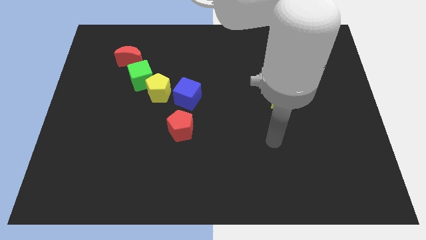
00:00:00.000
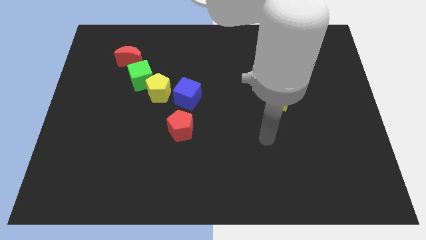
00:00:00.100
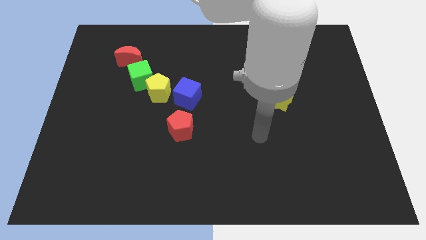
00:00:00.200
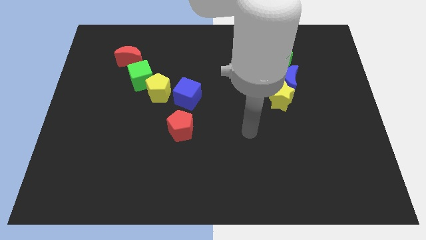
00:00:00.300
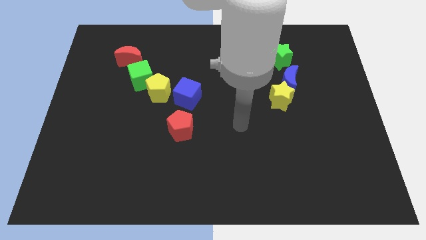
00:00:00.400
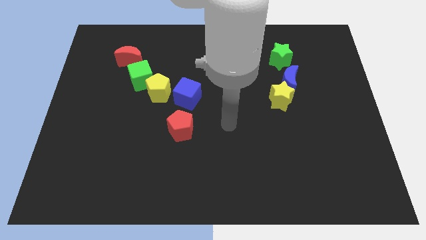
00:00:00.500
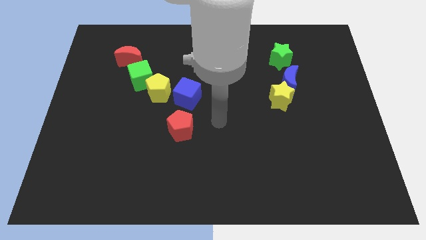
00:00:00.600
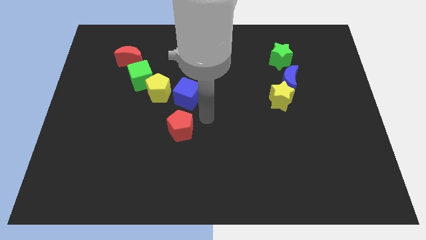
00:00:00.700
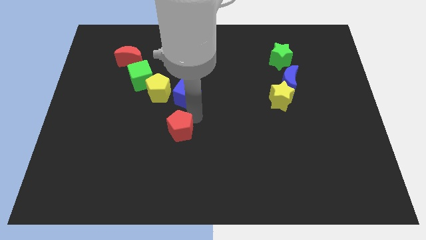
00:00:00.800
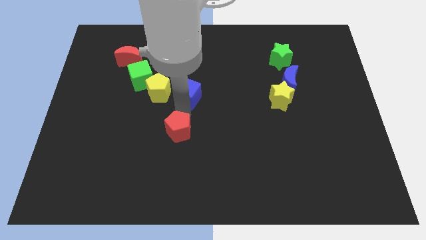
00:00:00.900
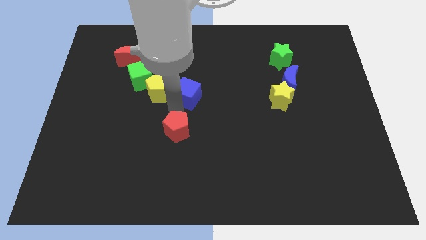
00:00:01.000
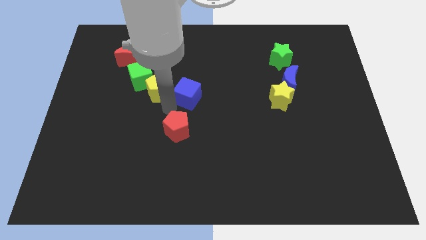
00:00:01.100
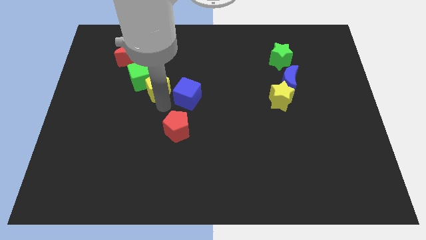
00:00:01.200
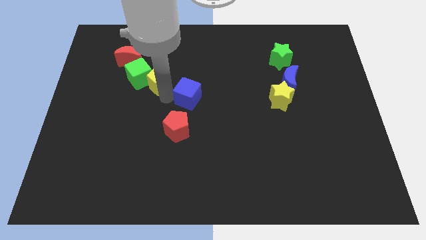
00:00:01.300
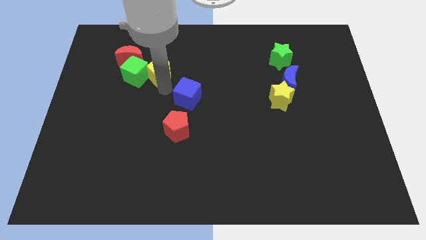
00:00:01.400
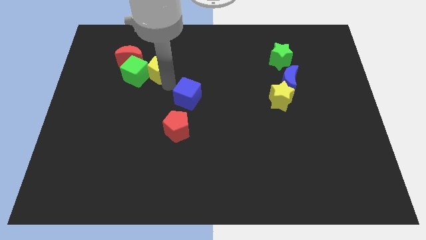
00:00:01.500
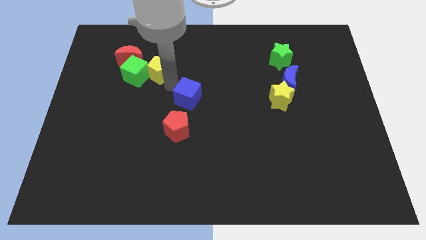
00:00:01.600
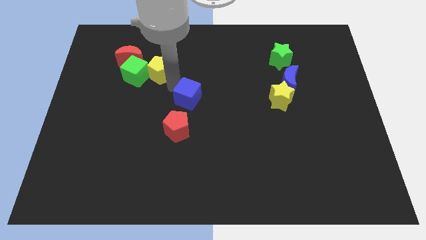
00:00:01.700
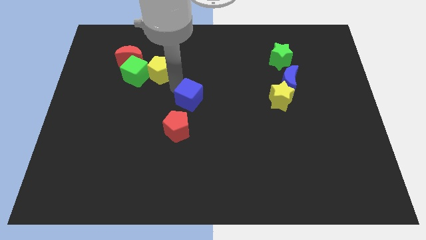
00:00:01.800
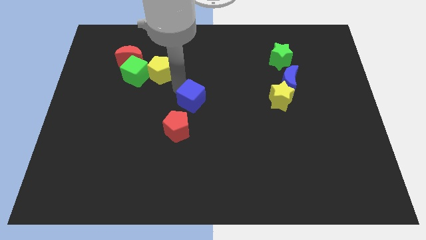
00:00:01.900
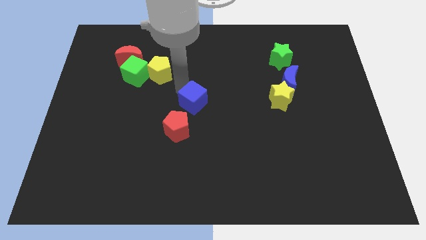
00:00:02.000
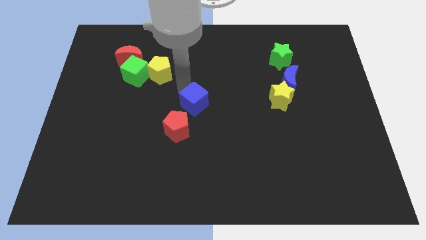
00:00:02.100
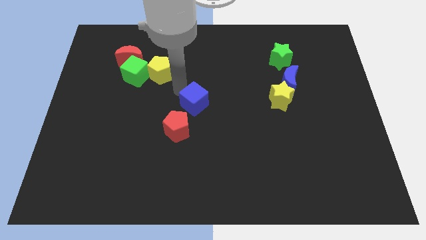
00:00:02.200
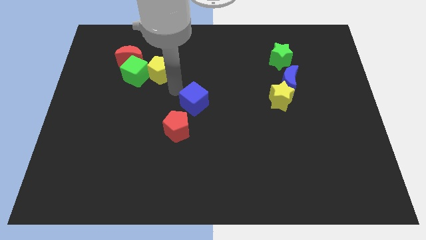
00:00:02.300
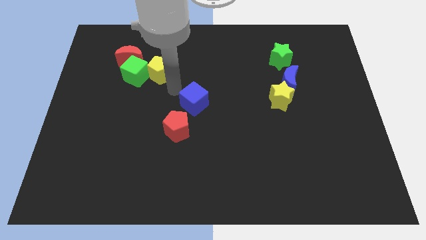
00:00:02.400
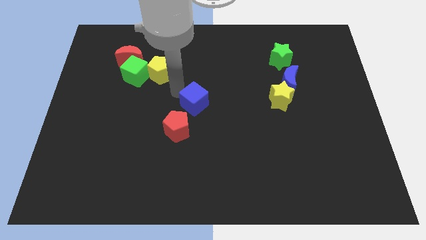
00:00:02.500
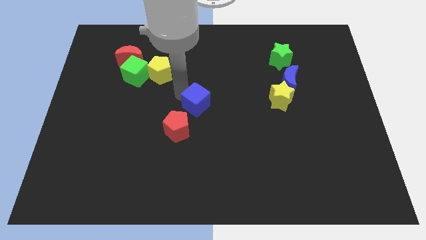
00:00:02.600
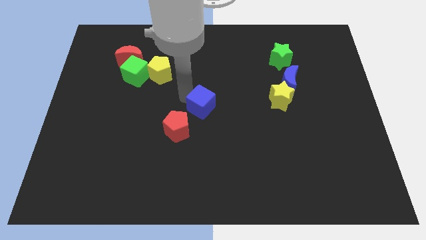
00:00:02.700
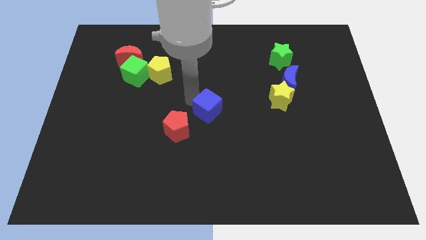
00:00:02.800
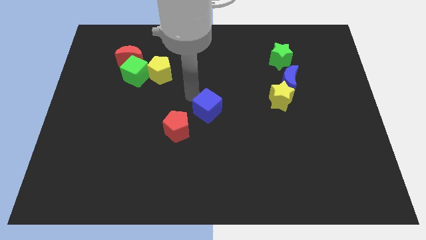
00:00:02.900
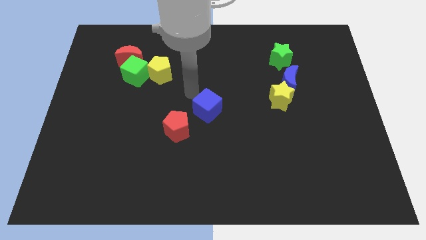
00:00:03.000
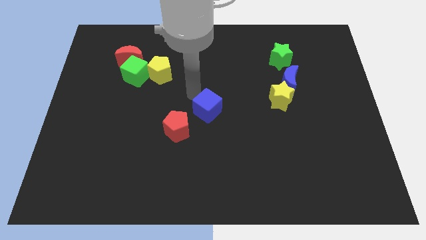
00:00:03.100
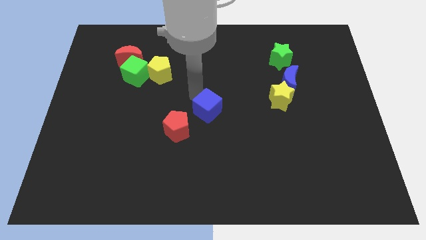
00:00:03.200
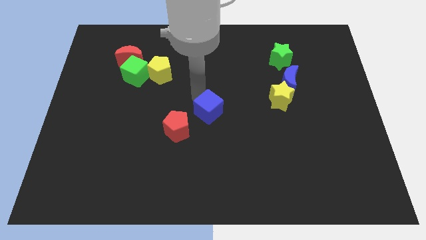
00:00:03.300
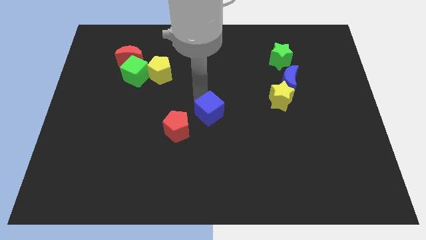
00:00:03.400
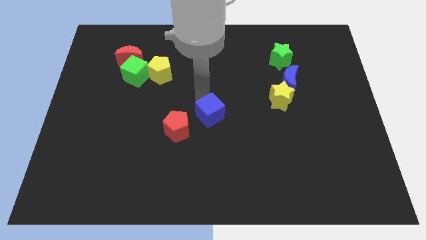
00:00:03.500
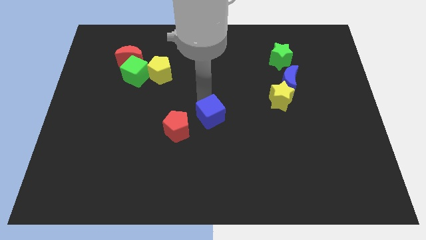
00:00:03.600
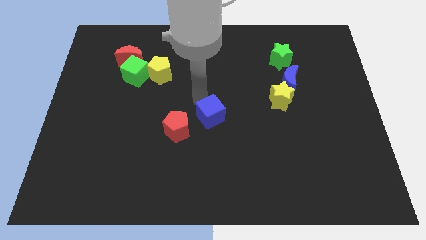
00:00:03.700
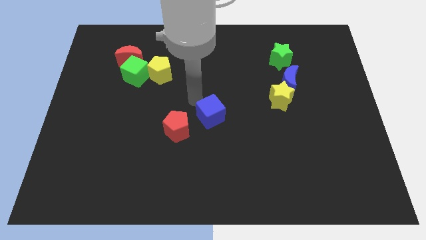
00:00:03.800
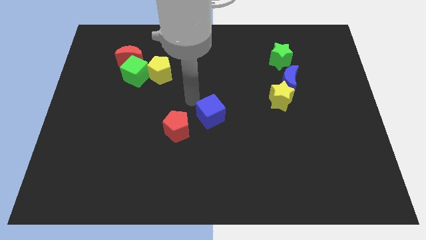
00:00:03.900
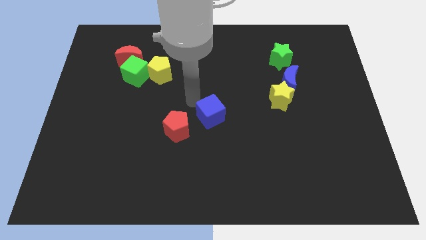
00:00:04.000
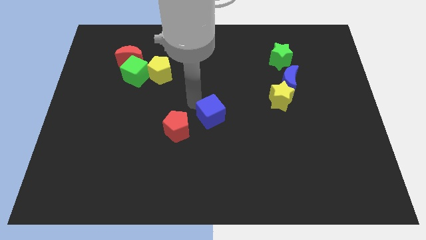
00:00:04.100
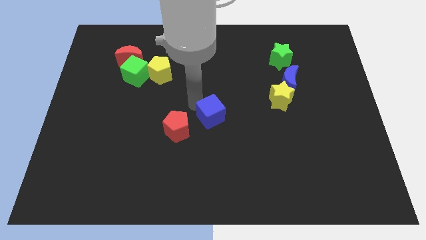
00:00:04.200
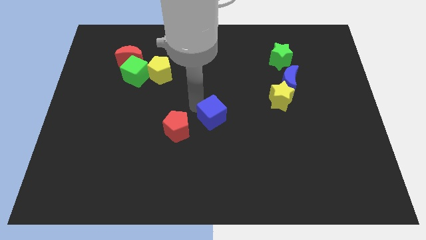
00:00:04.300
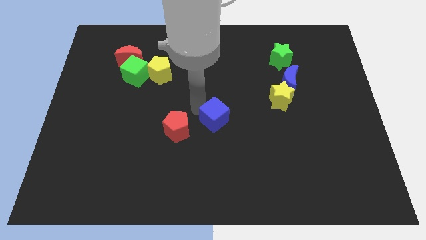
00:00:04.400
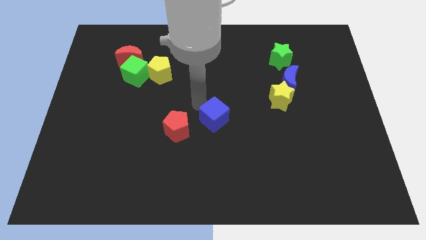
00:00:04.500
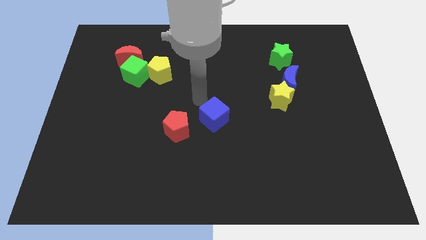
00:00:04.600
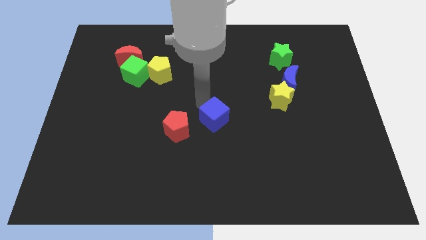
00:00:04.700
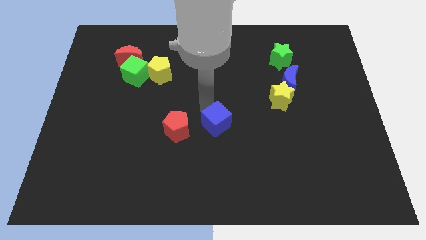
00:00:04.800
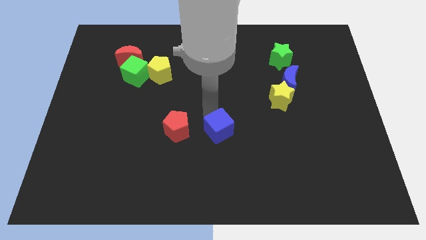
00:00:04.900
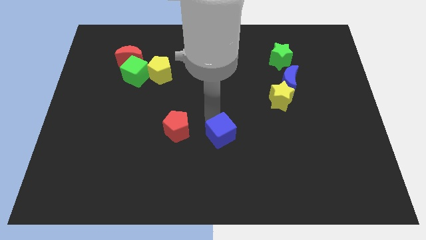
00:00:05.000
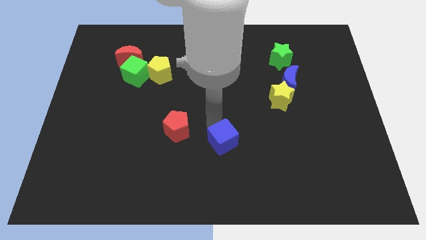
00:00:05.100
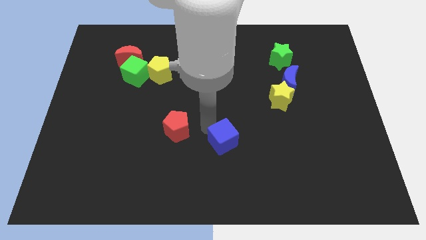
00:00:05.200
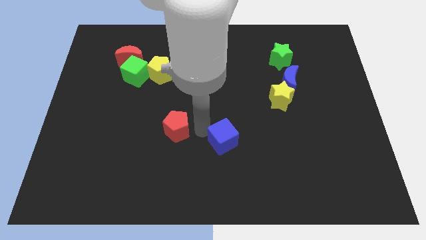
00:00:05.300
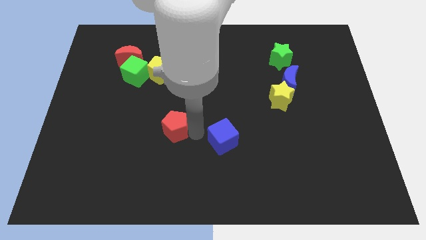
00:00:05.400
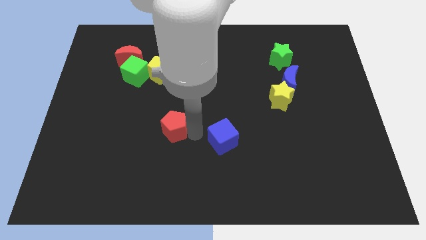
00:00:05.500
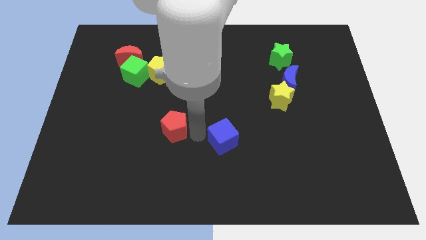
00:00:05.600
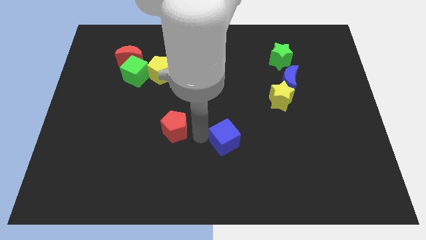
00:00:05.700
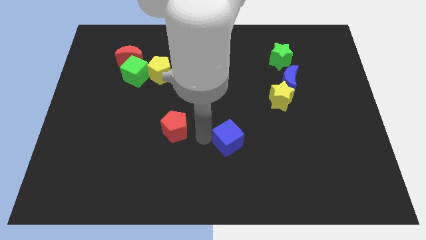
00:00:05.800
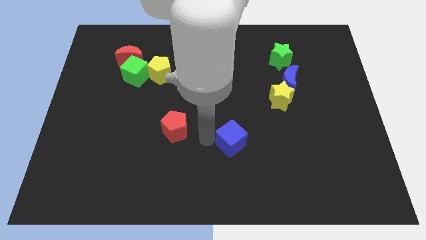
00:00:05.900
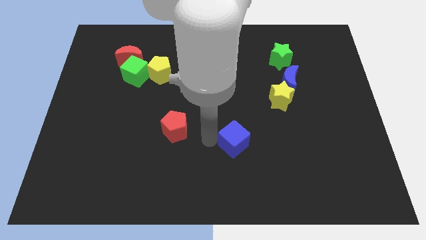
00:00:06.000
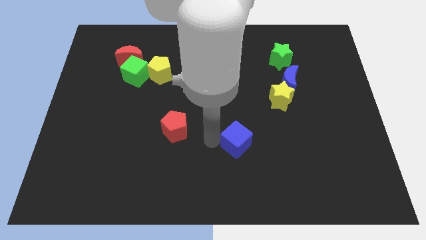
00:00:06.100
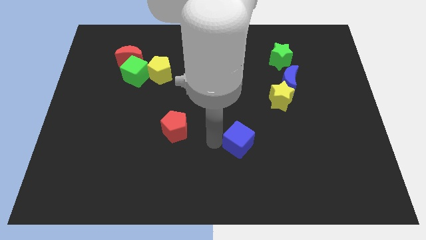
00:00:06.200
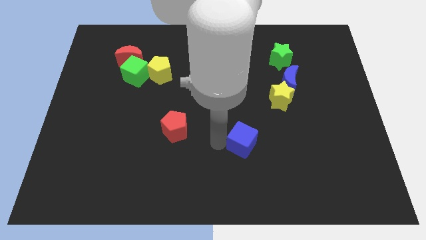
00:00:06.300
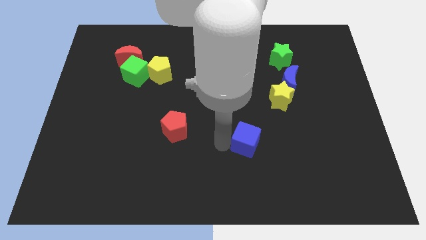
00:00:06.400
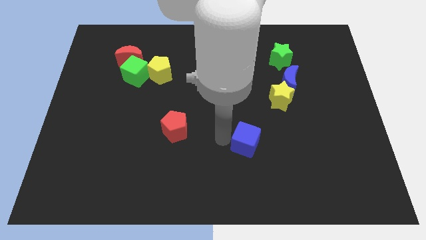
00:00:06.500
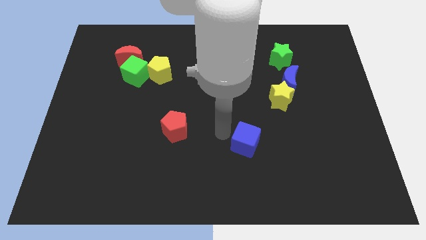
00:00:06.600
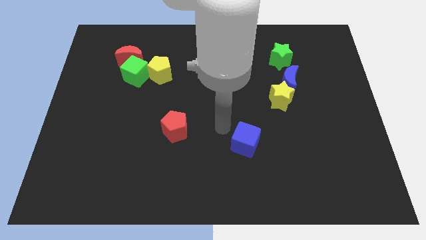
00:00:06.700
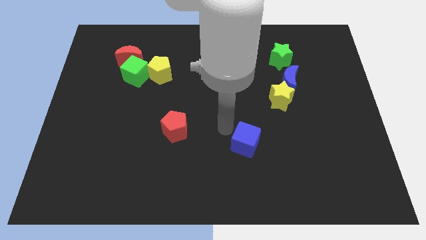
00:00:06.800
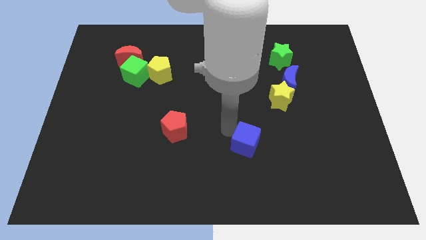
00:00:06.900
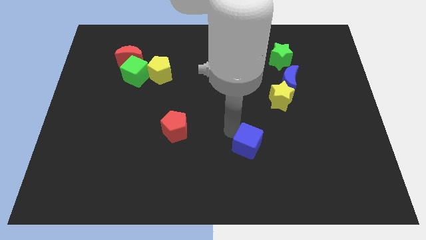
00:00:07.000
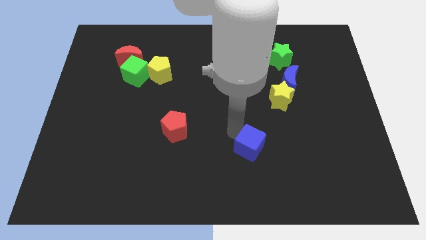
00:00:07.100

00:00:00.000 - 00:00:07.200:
move the blue cube downwards and right diagonally

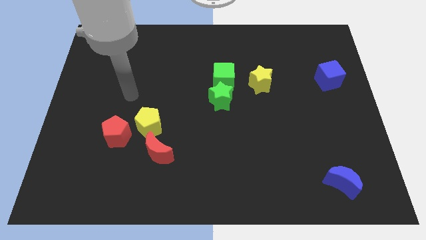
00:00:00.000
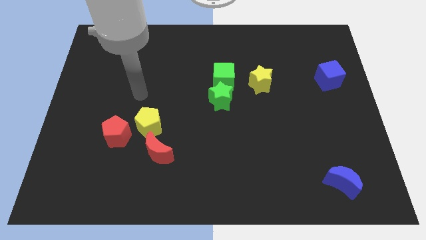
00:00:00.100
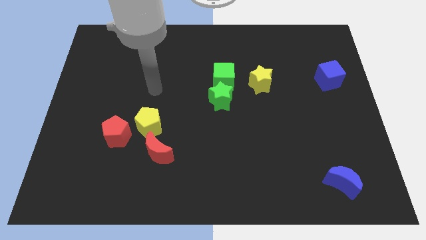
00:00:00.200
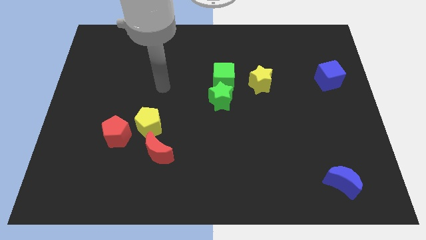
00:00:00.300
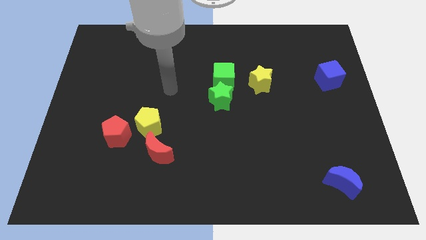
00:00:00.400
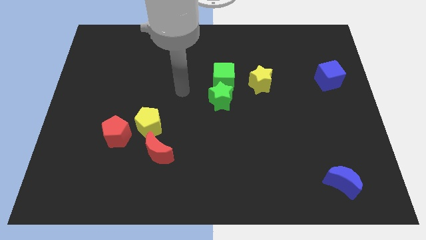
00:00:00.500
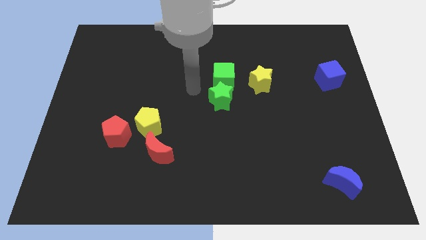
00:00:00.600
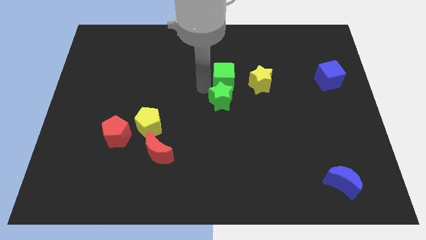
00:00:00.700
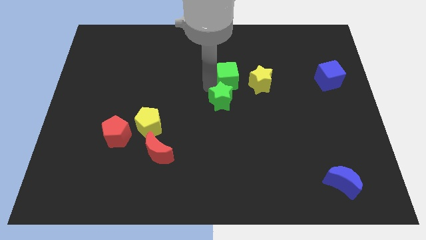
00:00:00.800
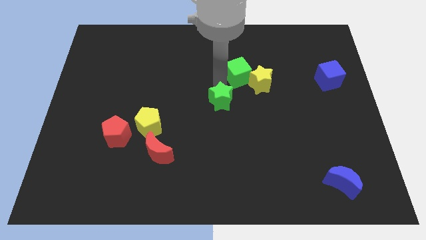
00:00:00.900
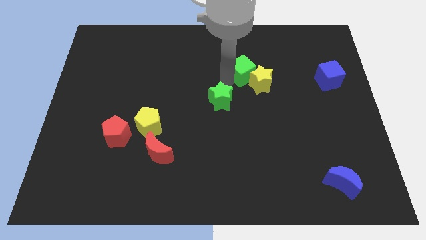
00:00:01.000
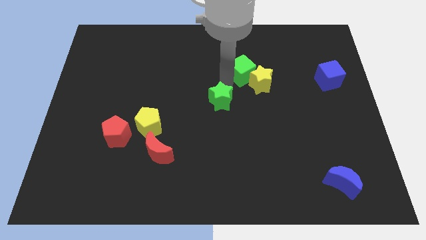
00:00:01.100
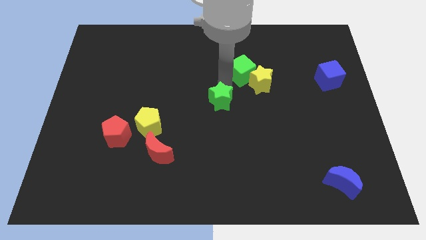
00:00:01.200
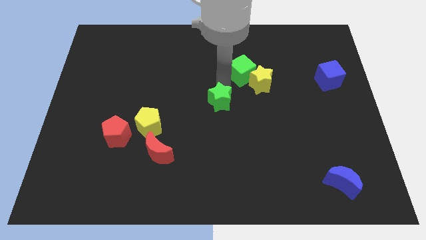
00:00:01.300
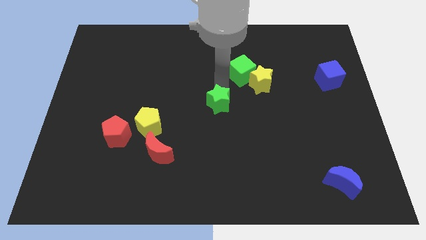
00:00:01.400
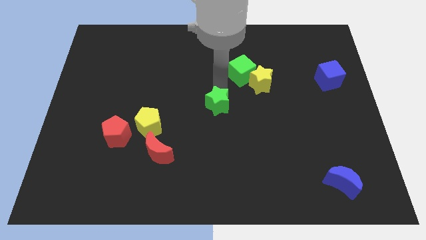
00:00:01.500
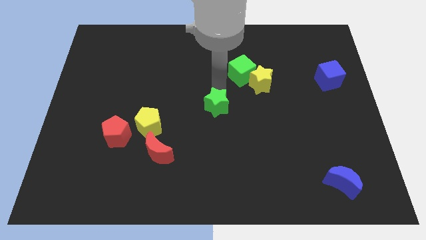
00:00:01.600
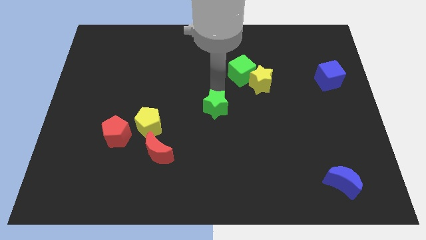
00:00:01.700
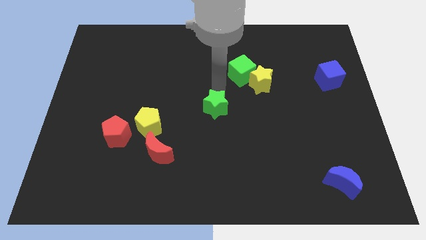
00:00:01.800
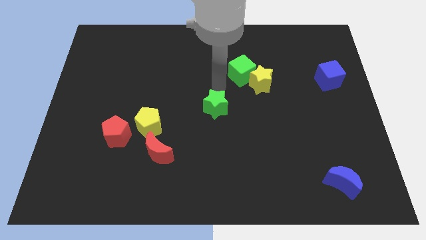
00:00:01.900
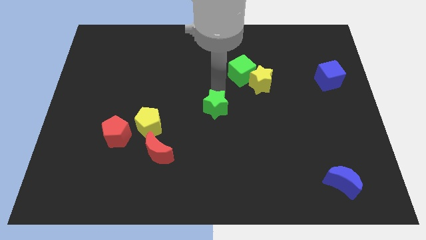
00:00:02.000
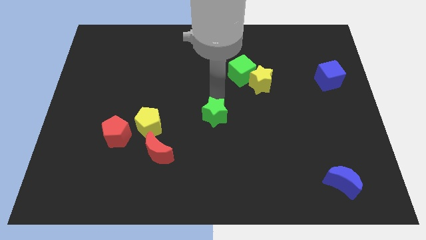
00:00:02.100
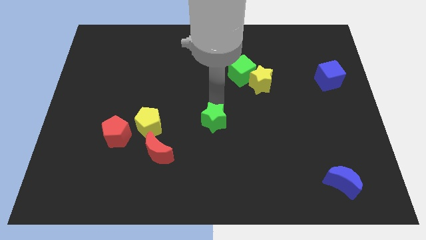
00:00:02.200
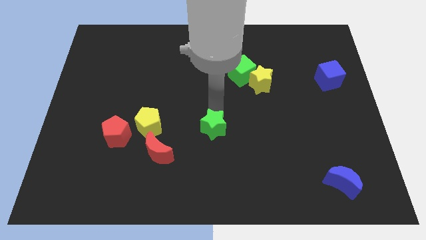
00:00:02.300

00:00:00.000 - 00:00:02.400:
push the green star down a bit
